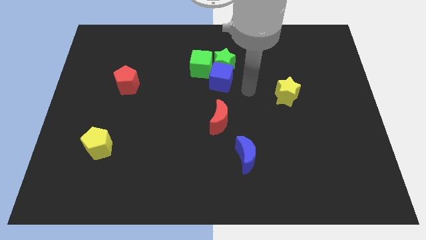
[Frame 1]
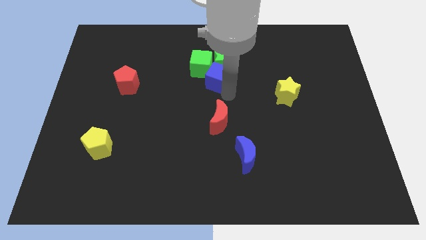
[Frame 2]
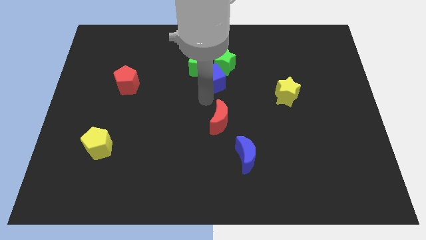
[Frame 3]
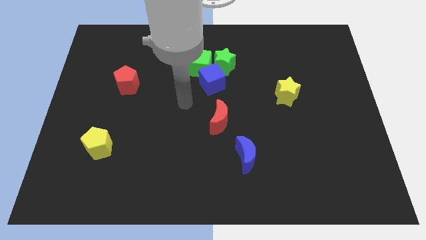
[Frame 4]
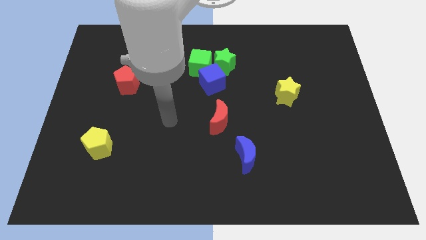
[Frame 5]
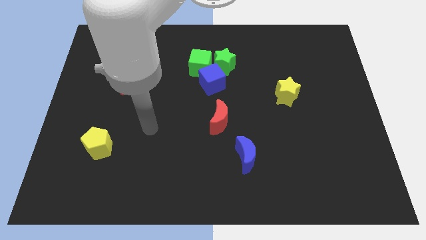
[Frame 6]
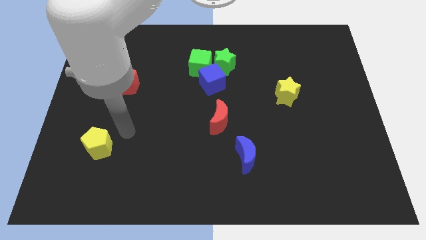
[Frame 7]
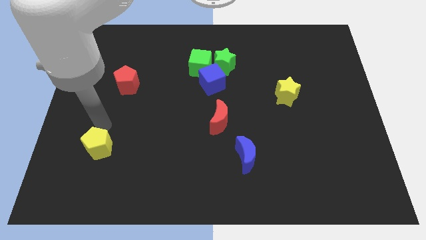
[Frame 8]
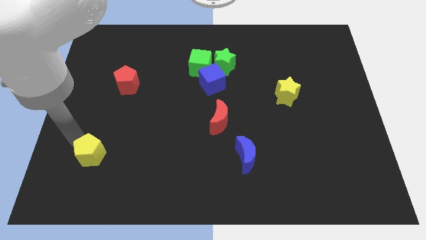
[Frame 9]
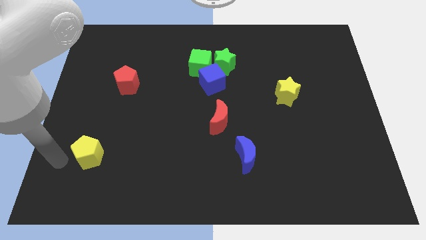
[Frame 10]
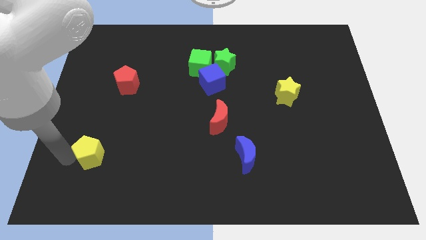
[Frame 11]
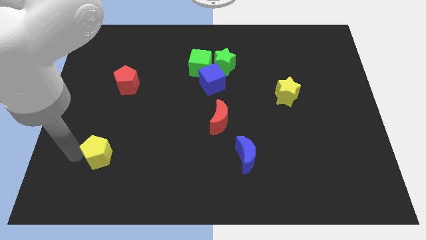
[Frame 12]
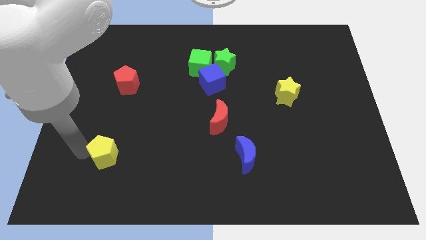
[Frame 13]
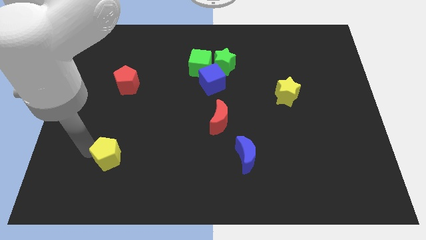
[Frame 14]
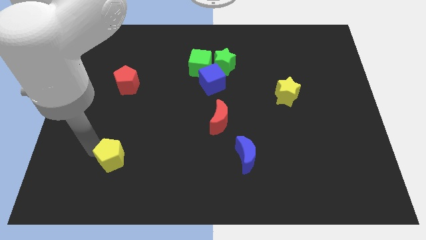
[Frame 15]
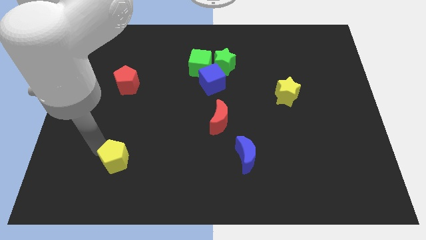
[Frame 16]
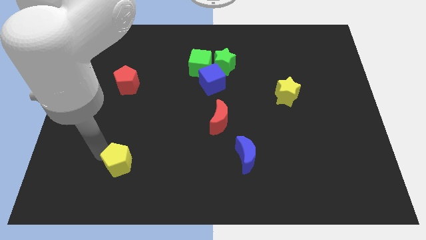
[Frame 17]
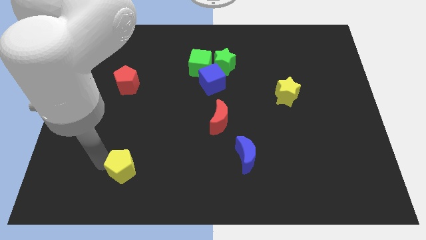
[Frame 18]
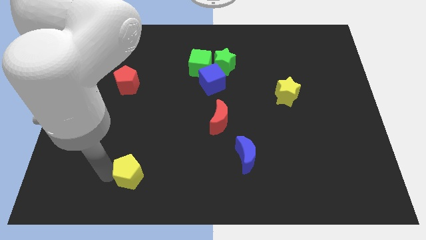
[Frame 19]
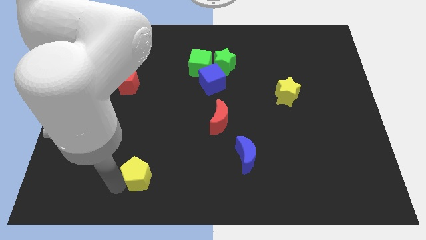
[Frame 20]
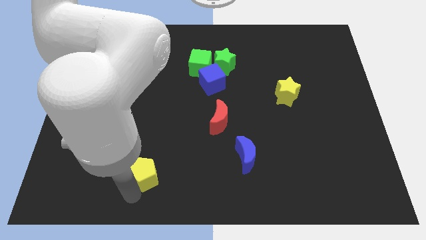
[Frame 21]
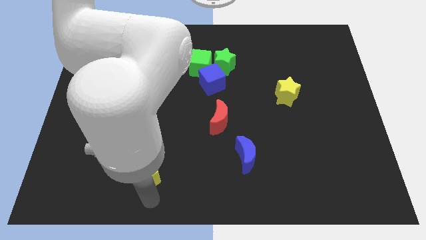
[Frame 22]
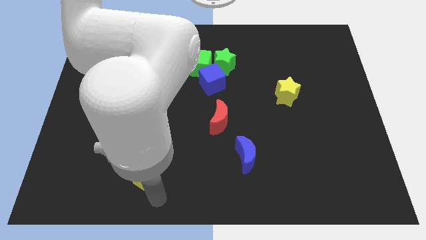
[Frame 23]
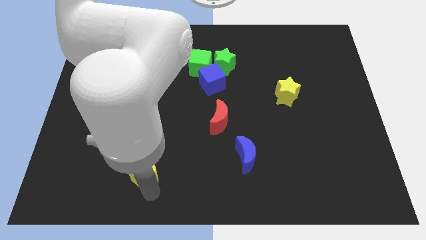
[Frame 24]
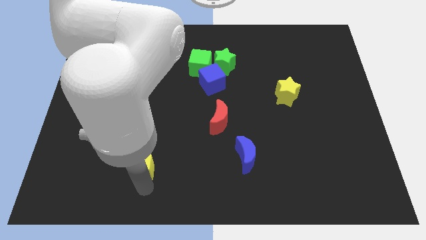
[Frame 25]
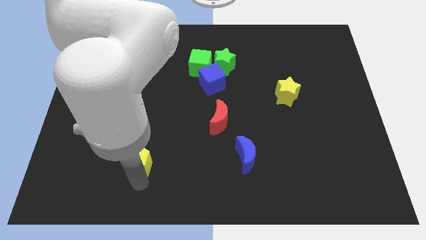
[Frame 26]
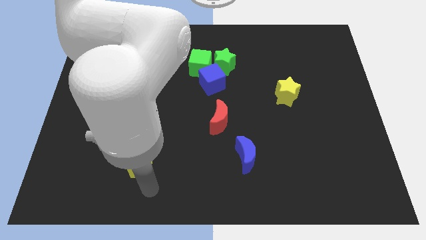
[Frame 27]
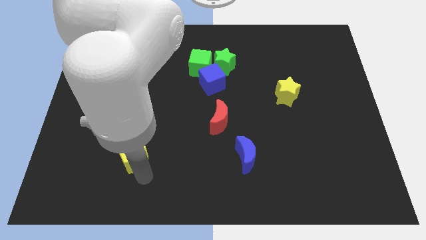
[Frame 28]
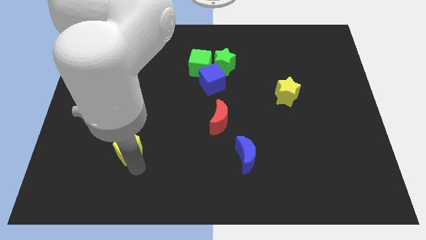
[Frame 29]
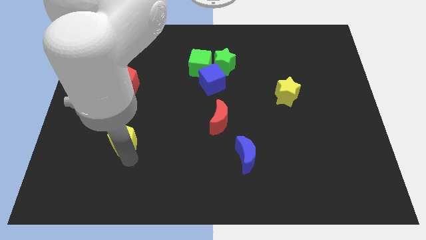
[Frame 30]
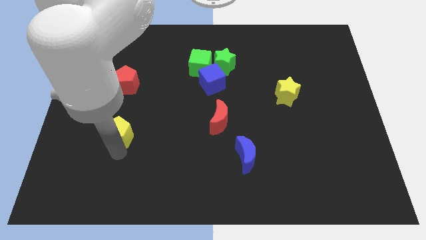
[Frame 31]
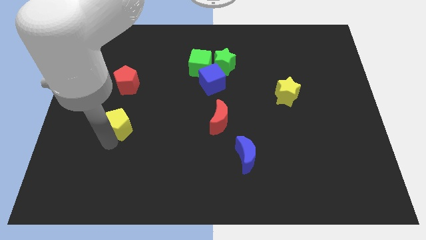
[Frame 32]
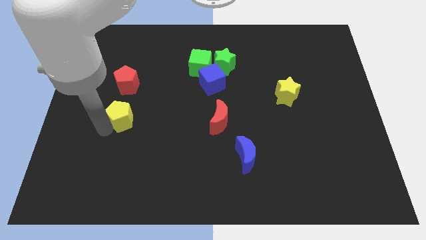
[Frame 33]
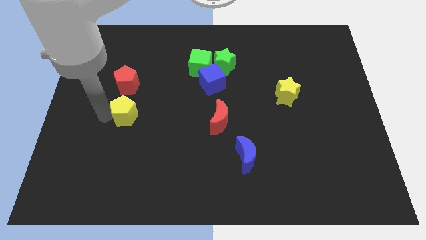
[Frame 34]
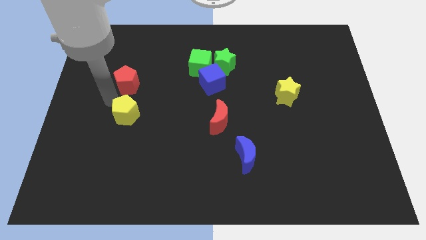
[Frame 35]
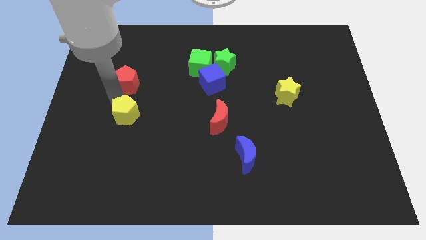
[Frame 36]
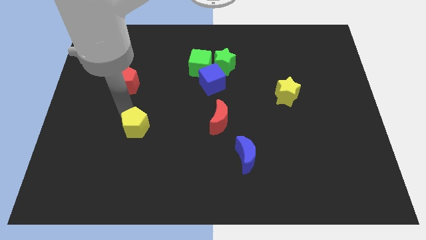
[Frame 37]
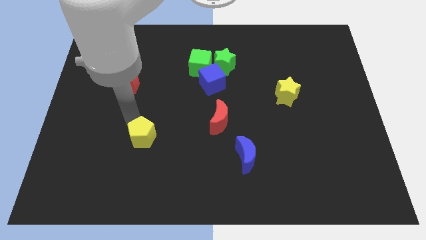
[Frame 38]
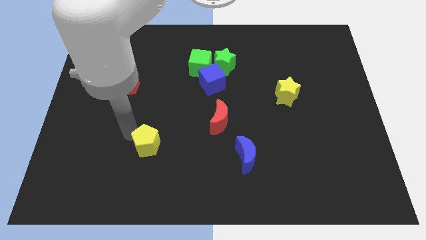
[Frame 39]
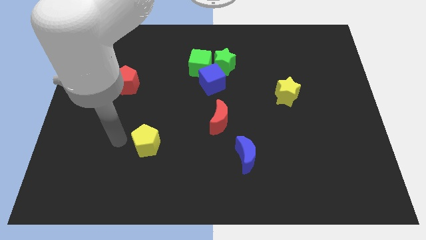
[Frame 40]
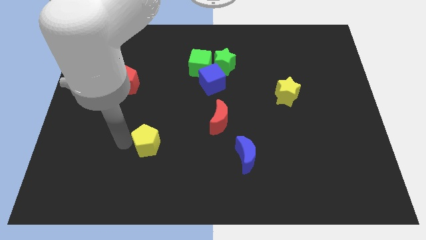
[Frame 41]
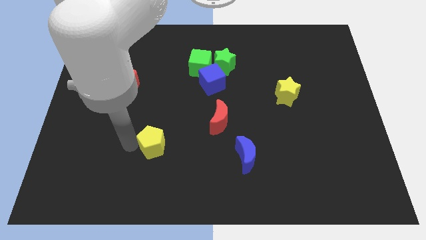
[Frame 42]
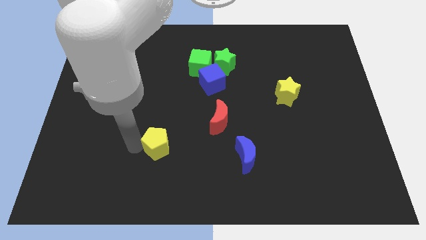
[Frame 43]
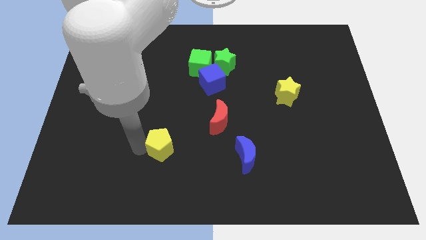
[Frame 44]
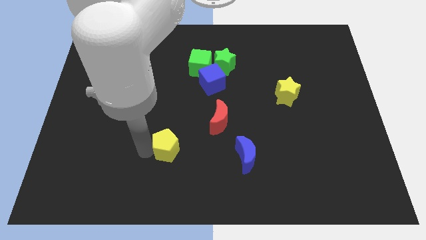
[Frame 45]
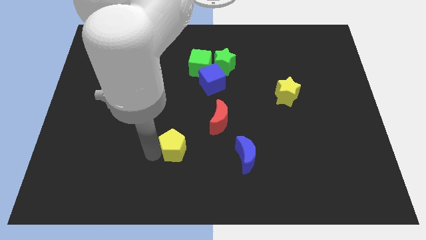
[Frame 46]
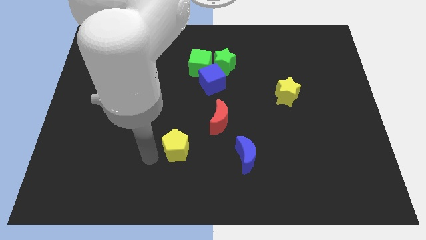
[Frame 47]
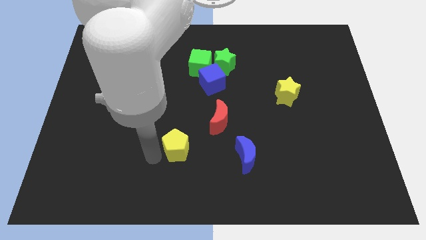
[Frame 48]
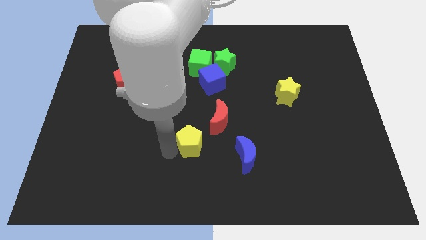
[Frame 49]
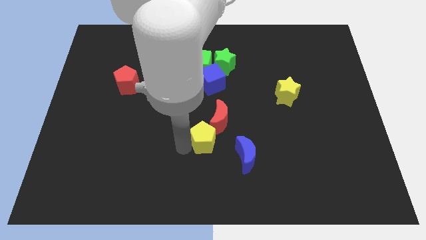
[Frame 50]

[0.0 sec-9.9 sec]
push the yellow pentagon diagonally up and to the left of the blue moon

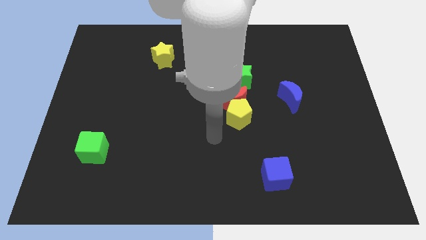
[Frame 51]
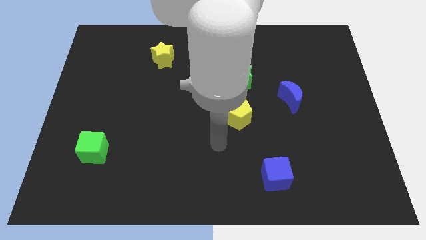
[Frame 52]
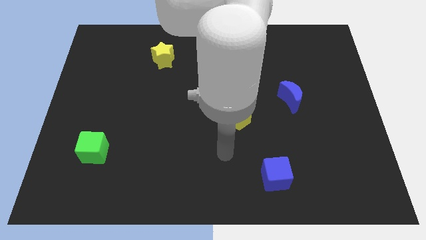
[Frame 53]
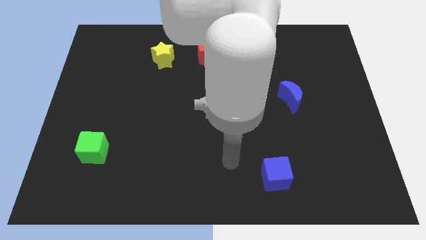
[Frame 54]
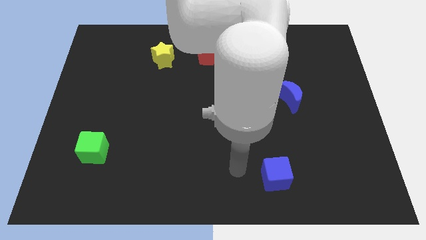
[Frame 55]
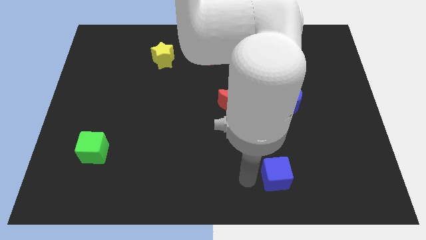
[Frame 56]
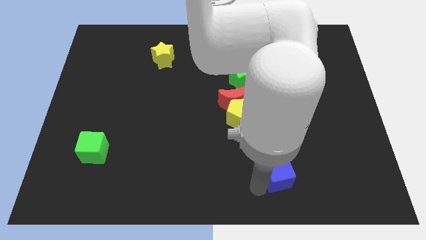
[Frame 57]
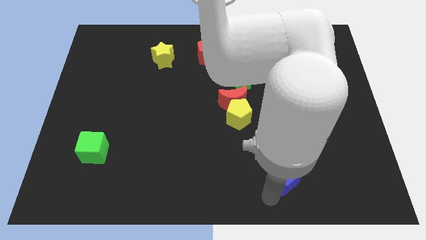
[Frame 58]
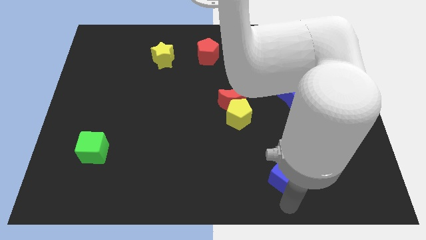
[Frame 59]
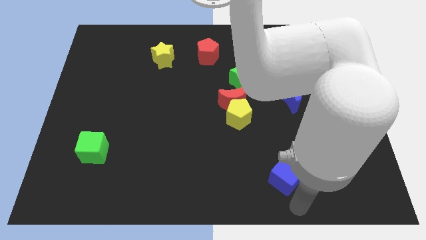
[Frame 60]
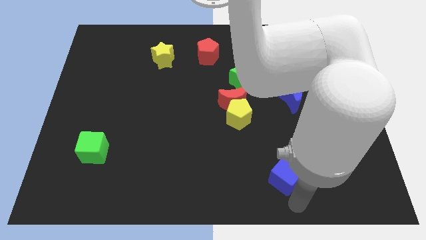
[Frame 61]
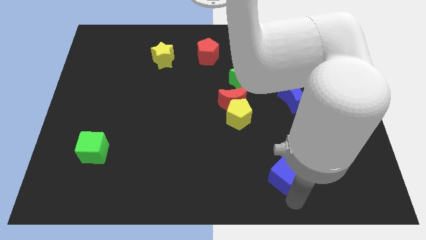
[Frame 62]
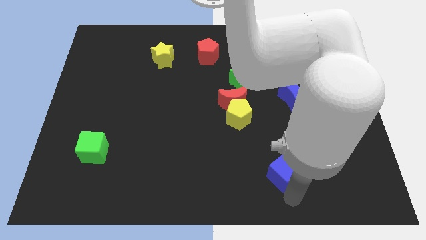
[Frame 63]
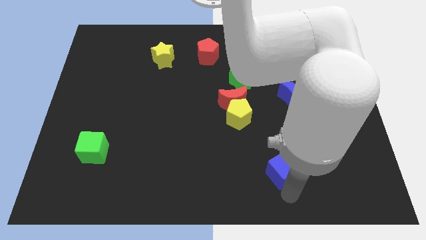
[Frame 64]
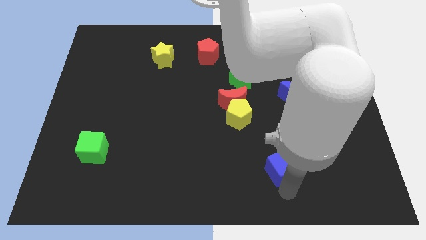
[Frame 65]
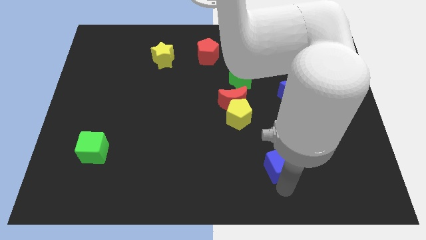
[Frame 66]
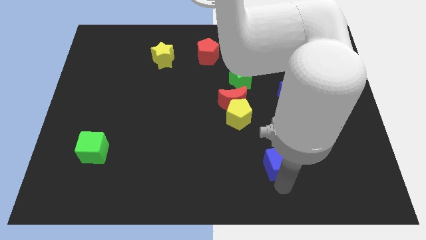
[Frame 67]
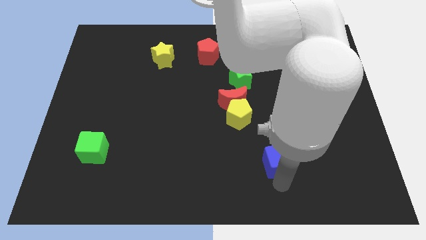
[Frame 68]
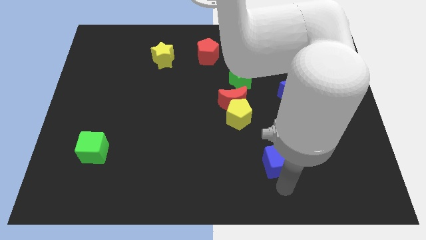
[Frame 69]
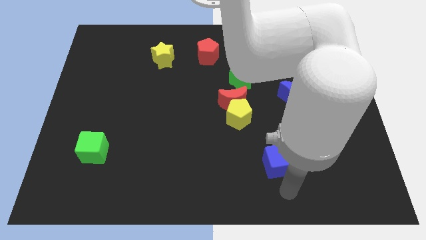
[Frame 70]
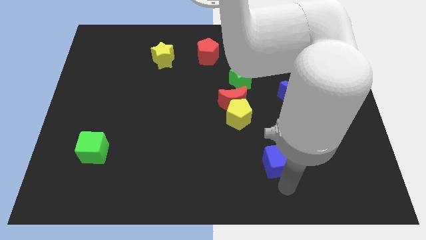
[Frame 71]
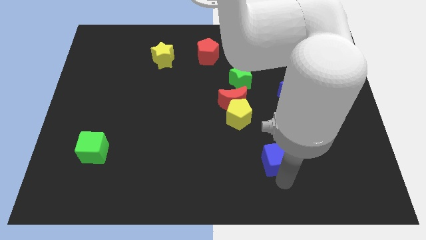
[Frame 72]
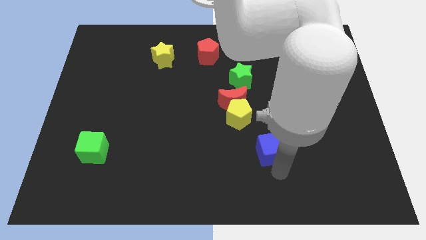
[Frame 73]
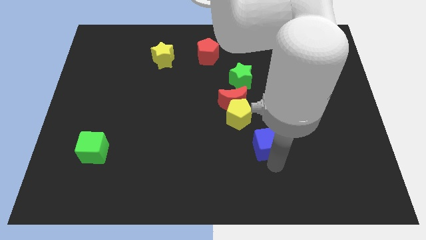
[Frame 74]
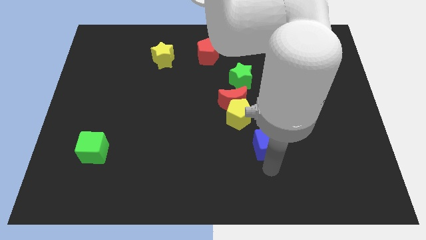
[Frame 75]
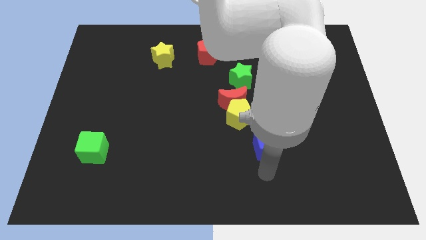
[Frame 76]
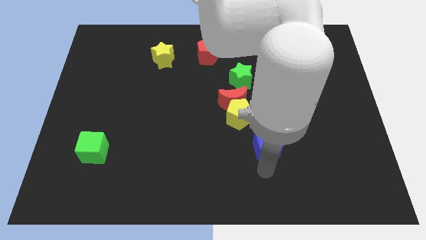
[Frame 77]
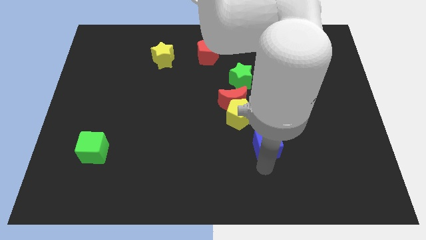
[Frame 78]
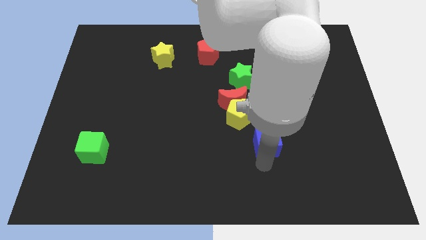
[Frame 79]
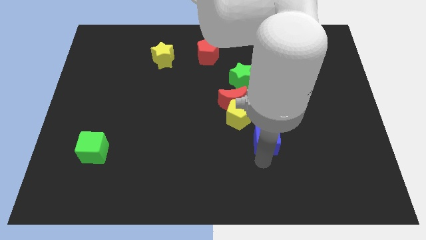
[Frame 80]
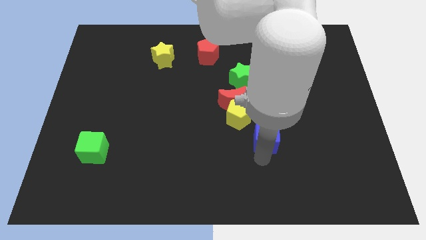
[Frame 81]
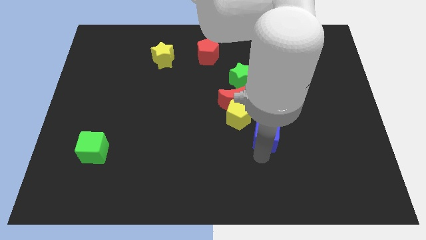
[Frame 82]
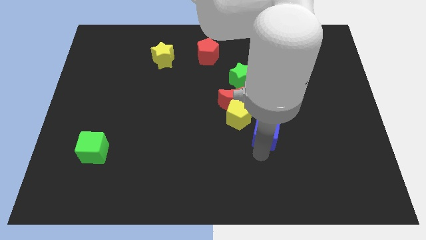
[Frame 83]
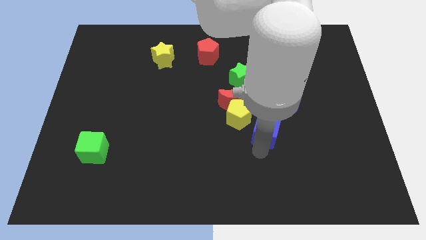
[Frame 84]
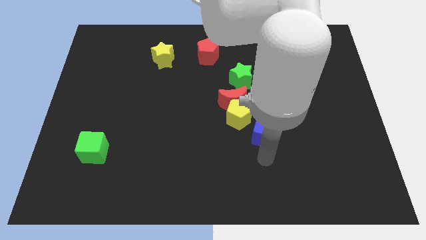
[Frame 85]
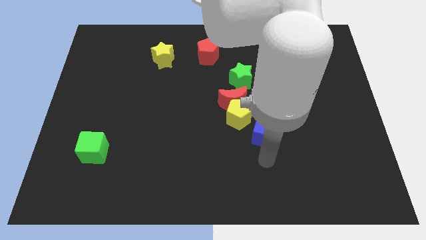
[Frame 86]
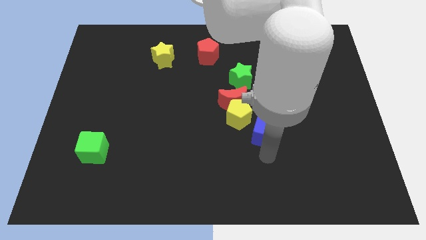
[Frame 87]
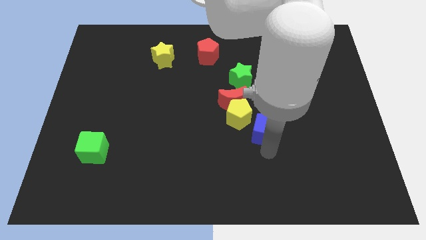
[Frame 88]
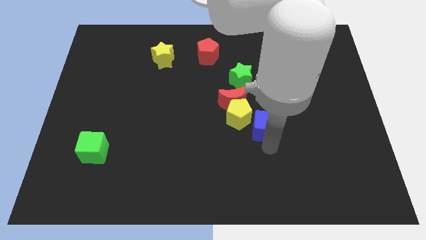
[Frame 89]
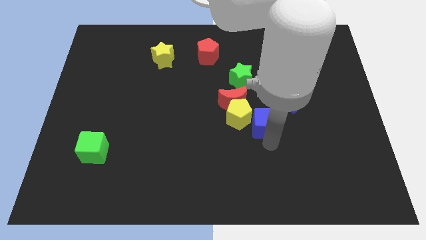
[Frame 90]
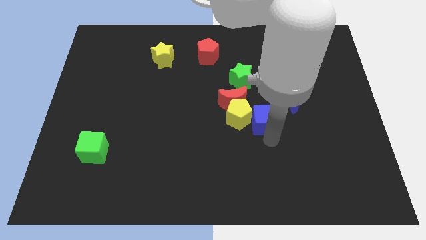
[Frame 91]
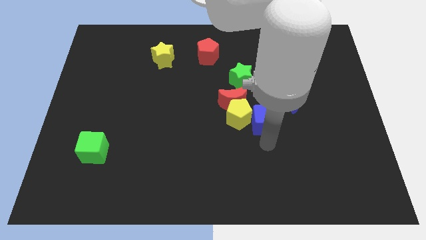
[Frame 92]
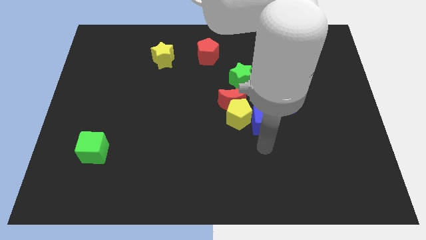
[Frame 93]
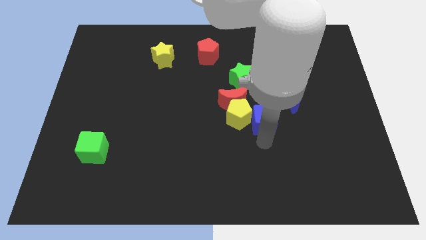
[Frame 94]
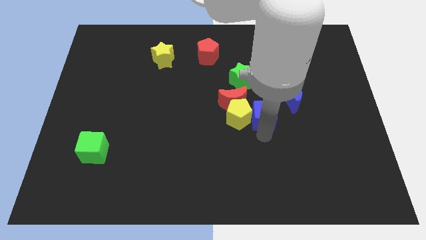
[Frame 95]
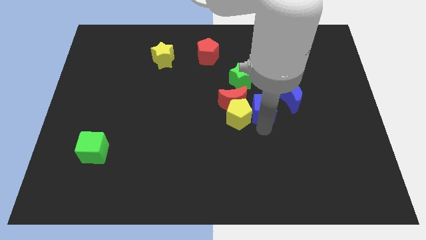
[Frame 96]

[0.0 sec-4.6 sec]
push the blue cube diagonally down and to the right of the green star
